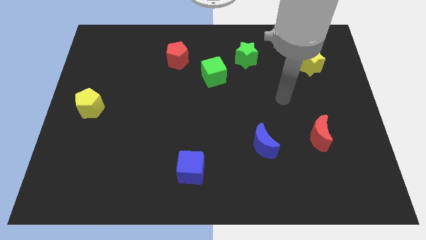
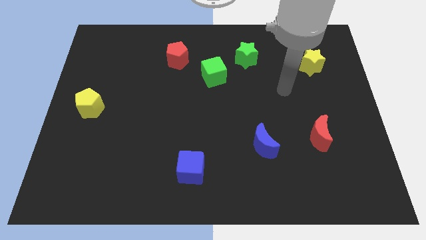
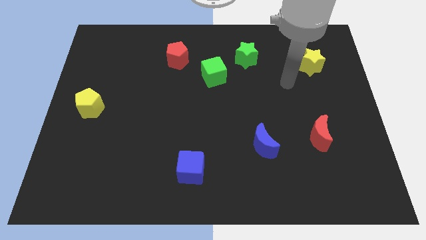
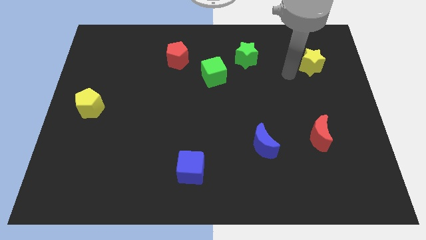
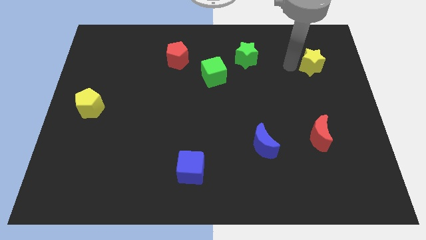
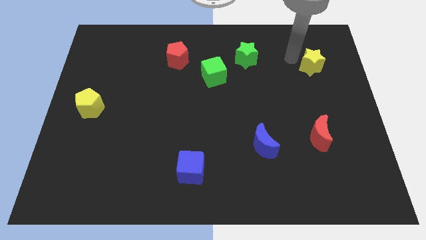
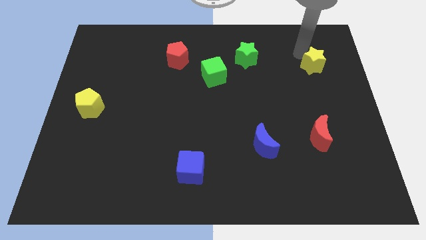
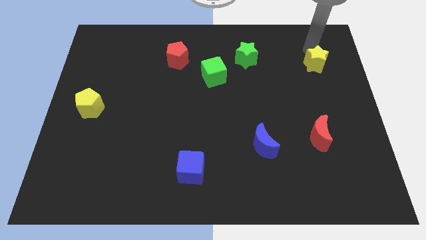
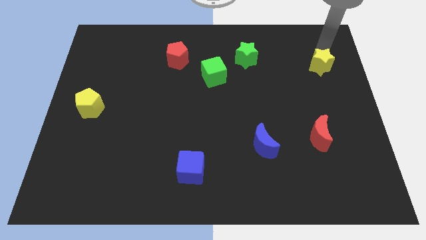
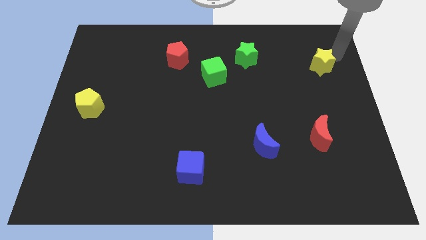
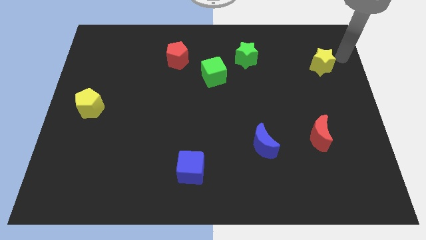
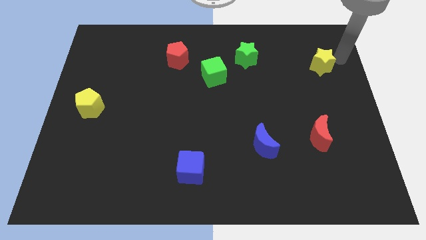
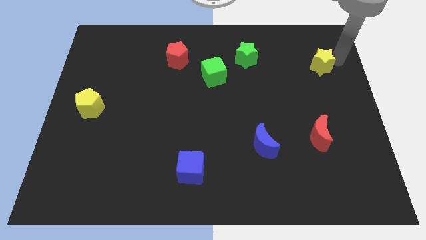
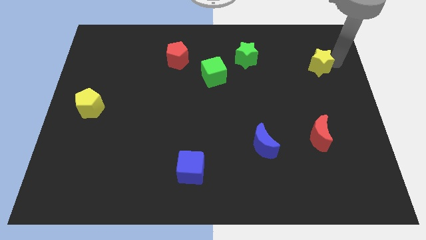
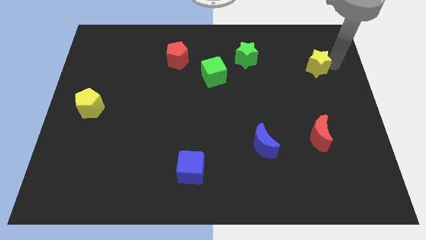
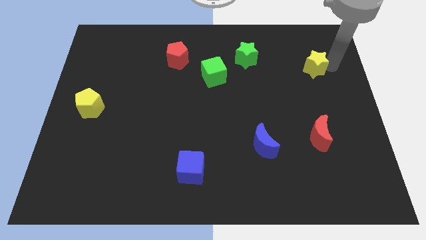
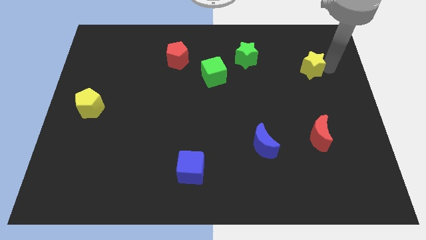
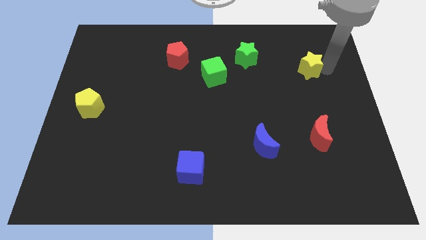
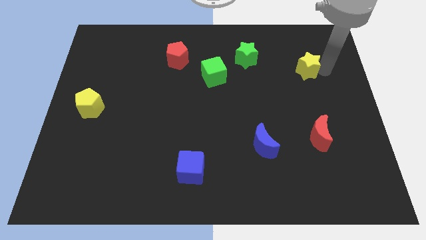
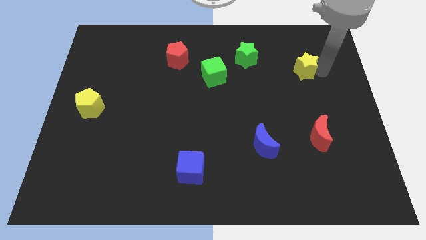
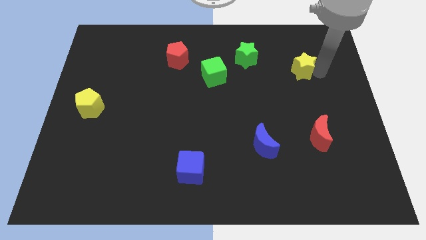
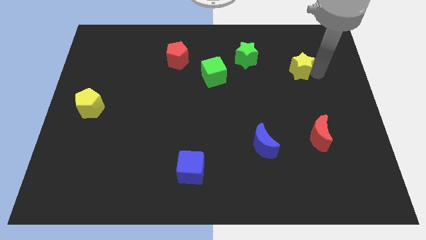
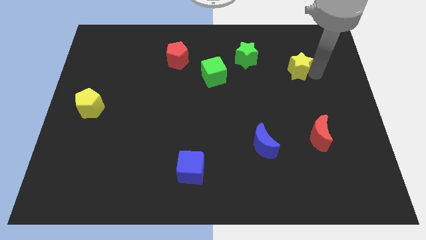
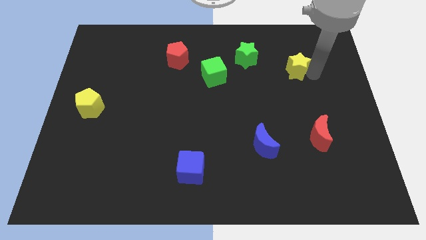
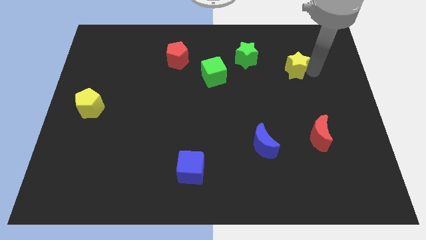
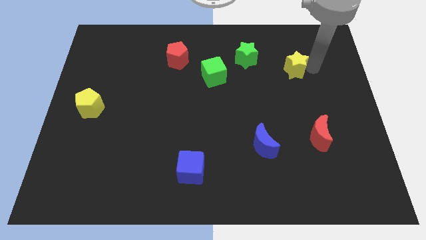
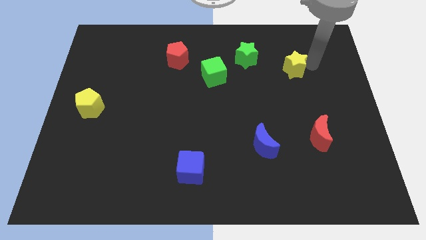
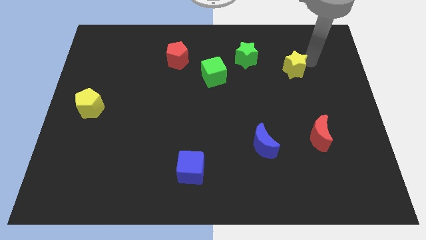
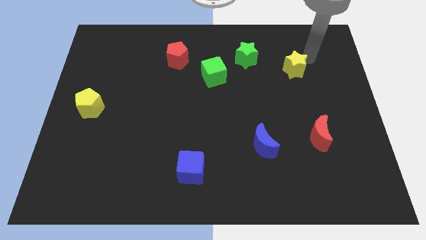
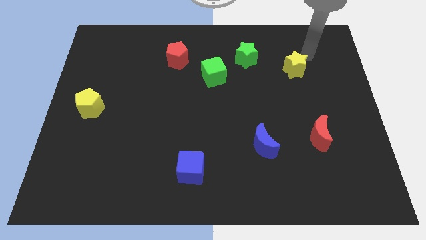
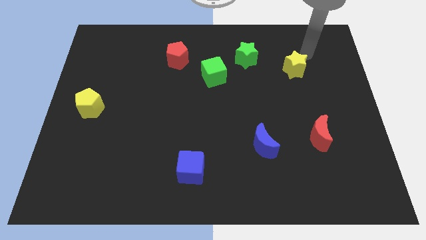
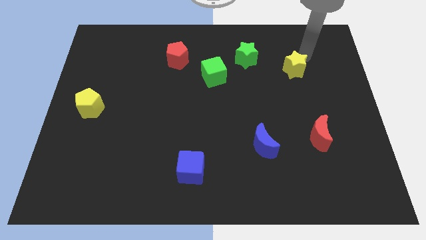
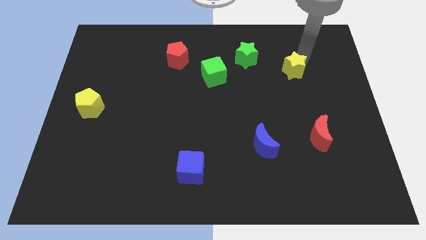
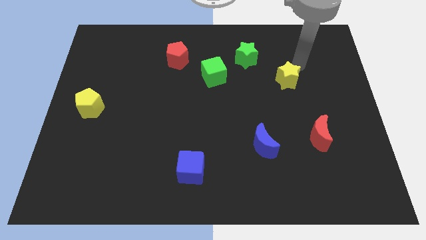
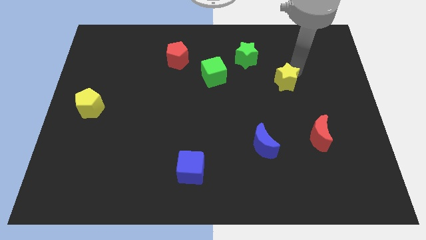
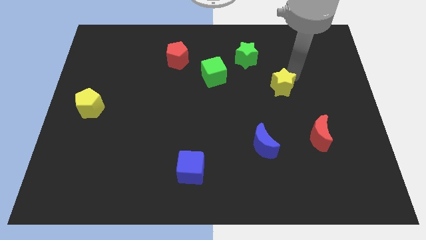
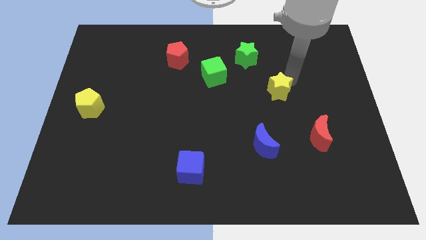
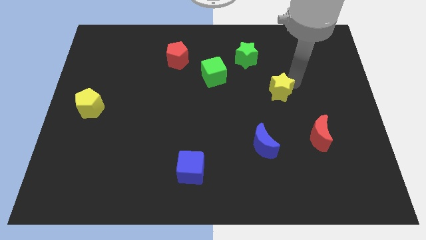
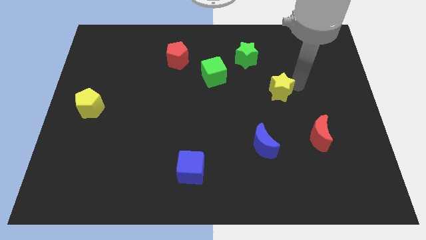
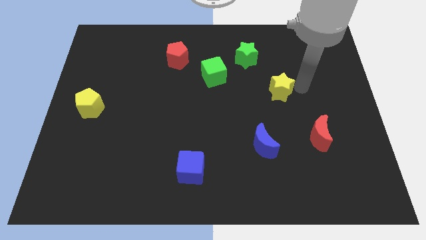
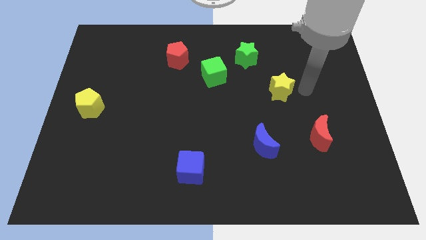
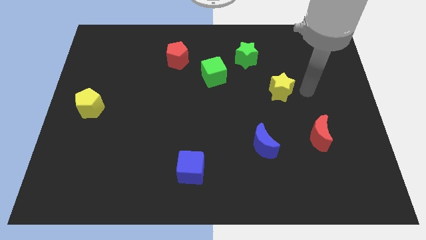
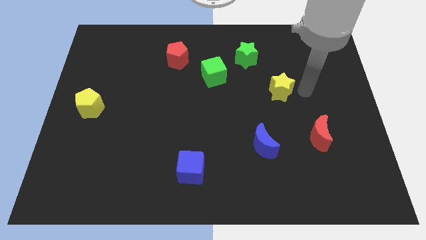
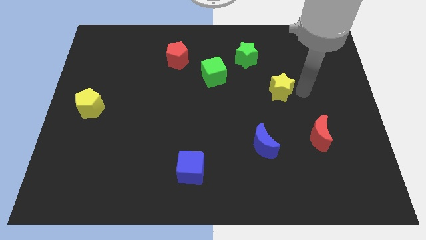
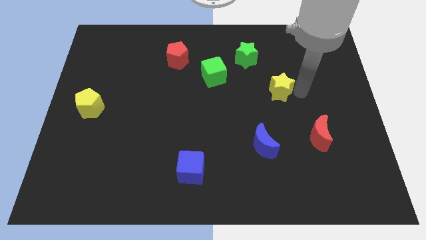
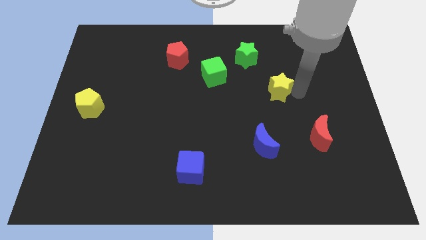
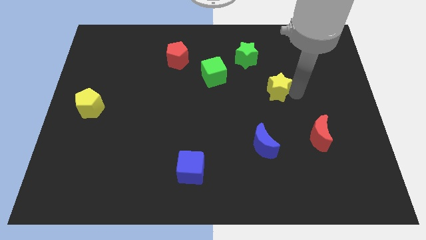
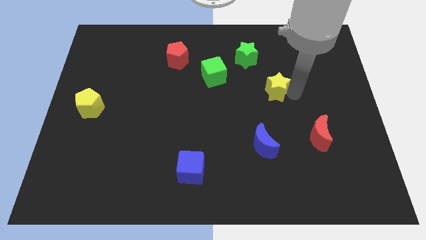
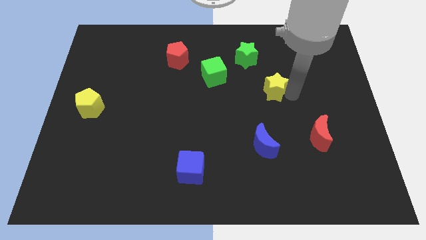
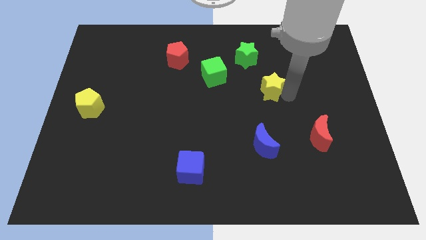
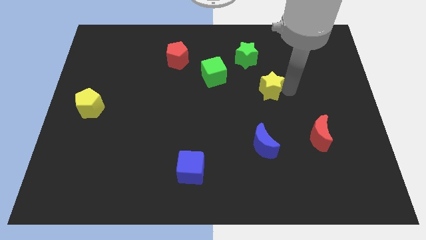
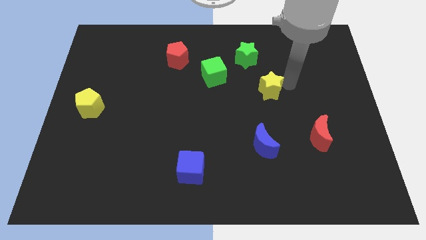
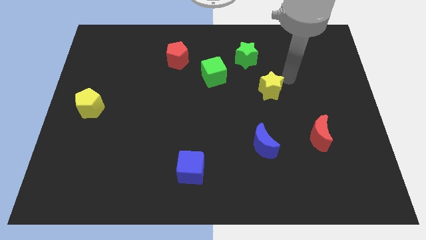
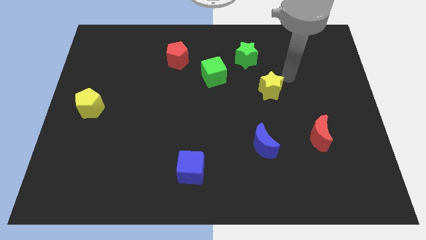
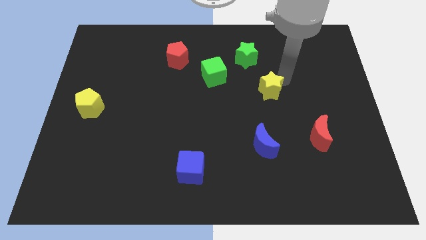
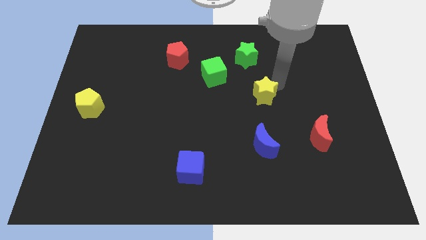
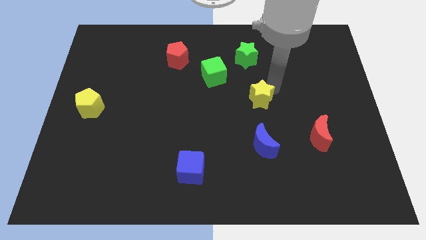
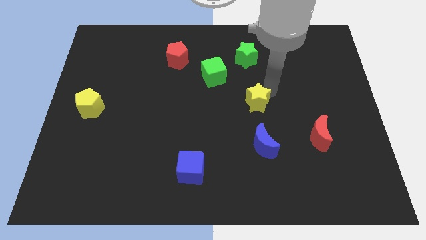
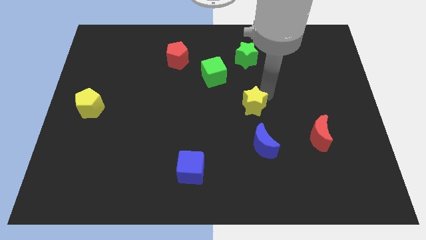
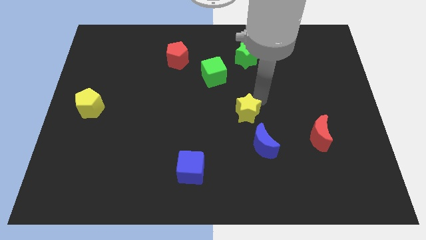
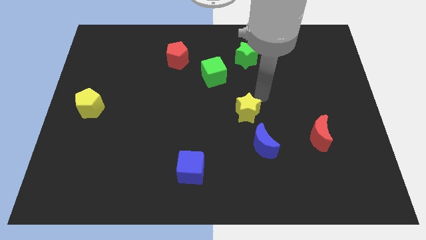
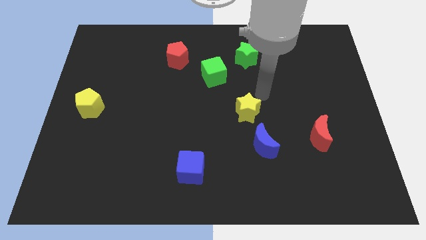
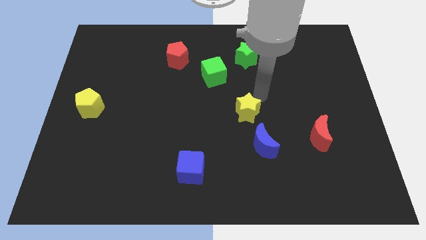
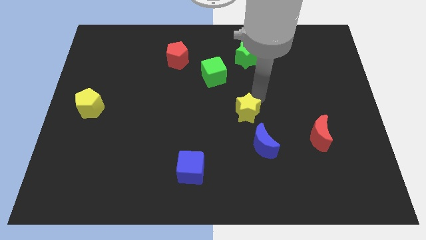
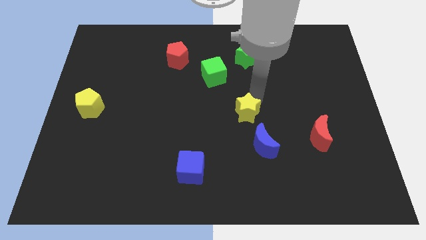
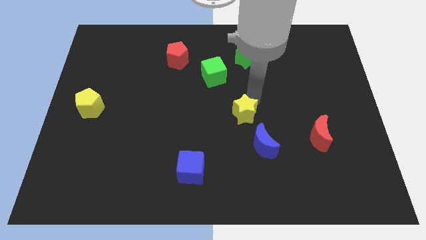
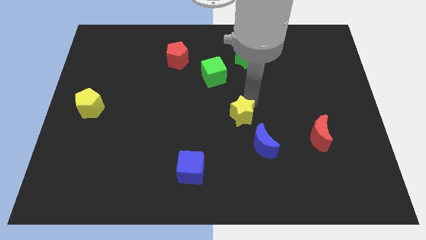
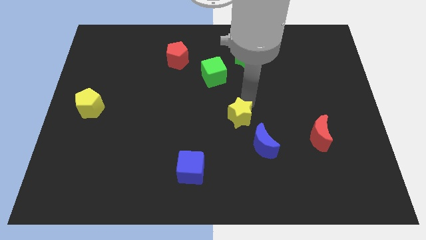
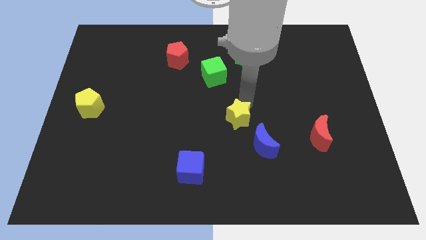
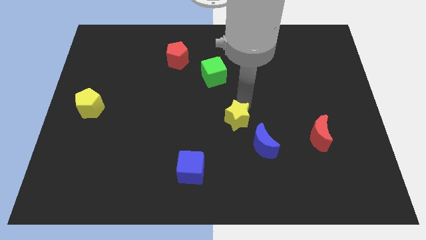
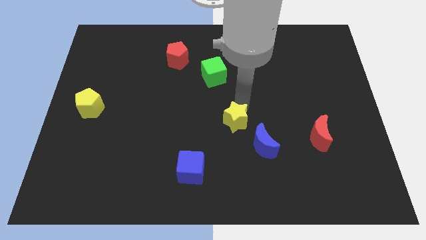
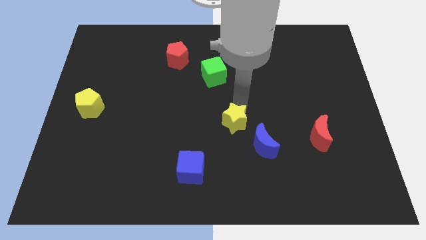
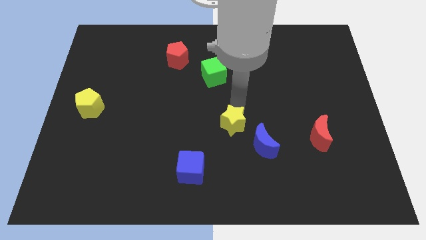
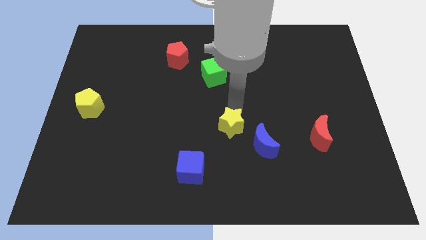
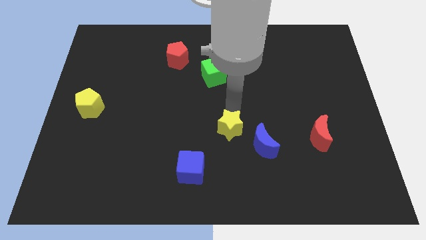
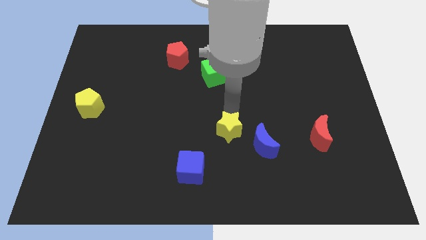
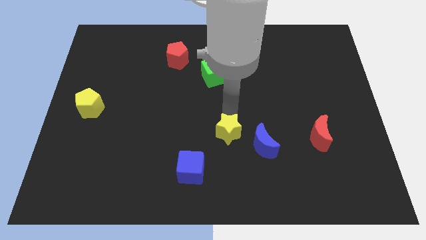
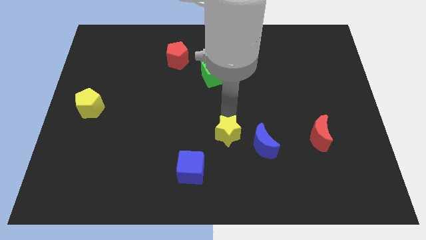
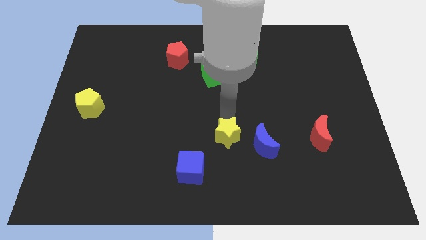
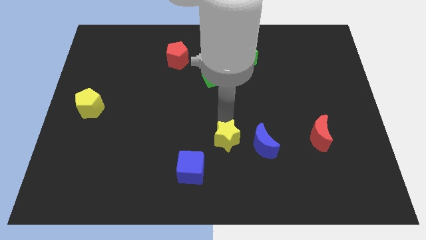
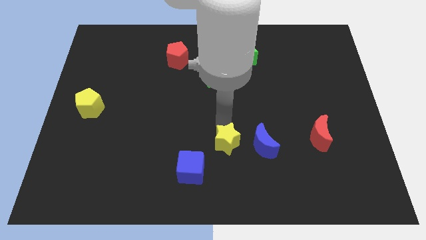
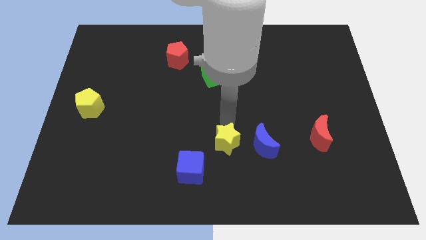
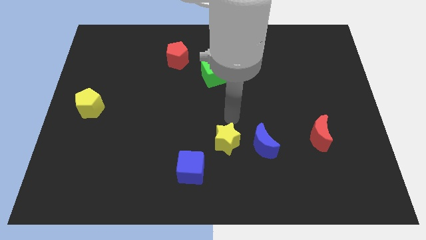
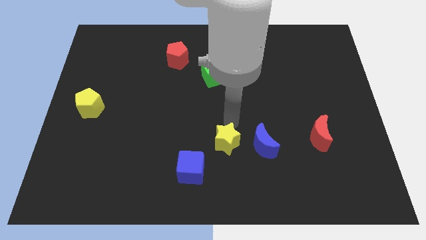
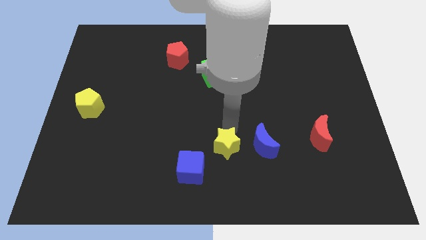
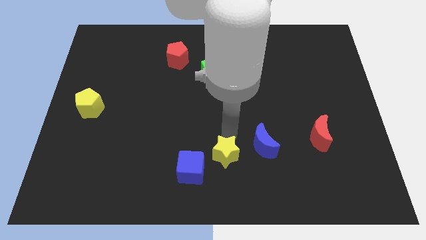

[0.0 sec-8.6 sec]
slide the yellow star to the bottom side
